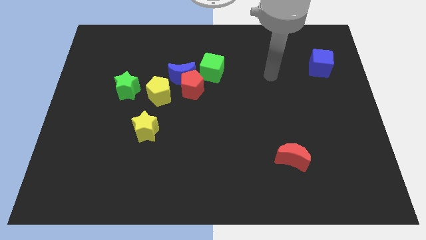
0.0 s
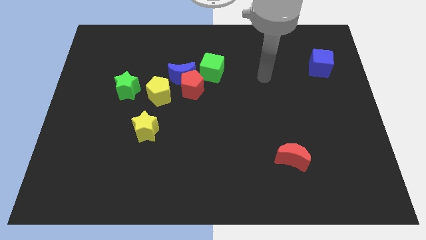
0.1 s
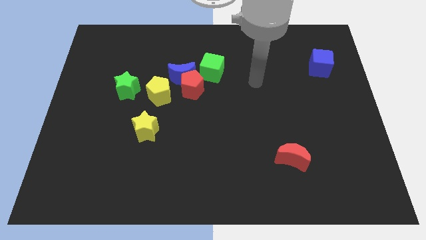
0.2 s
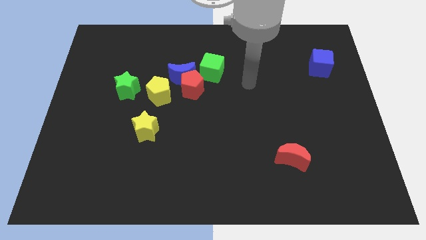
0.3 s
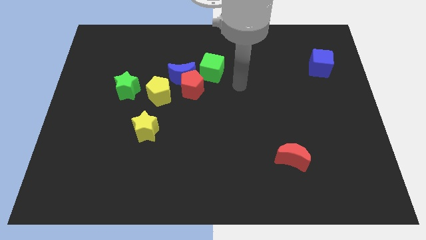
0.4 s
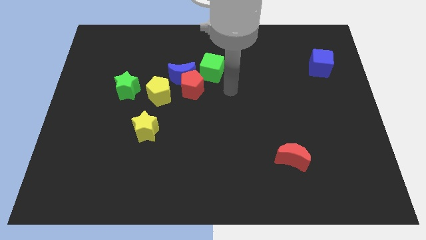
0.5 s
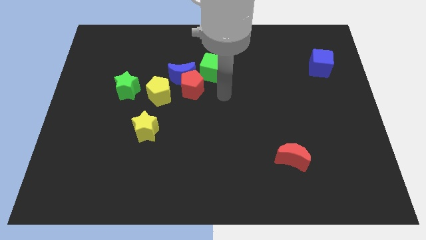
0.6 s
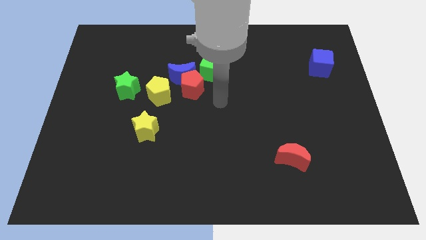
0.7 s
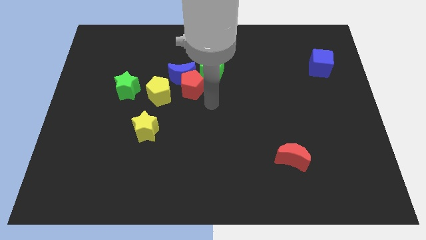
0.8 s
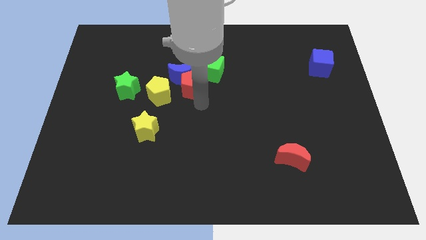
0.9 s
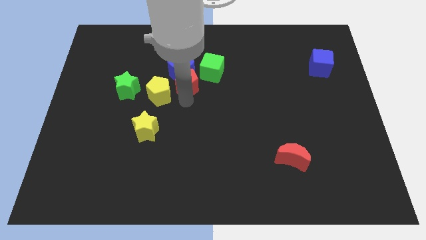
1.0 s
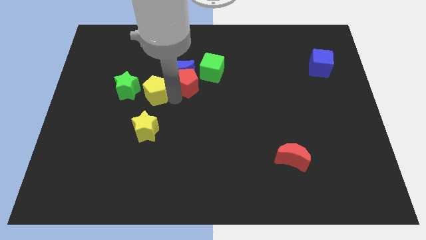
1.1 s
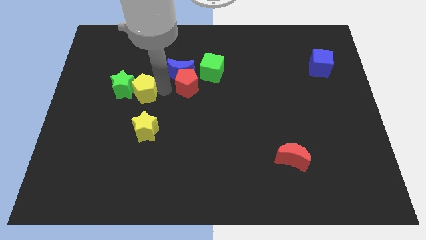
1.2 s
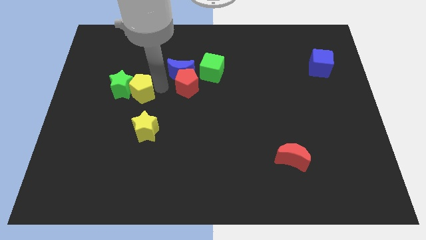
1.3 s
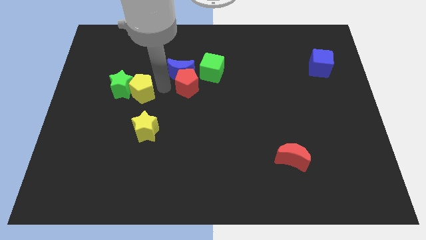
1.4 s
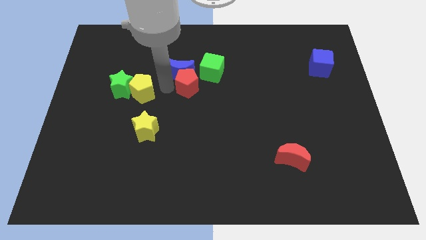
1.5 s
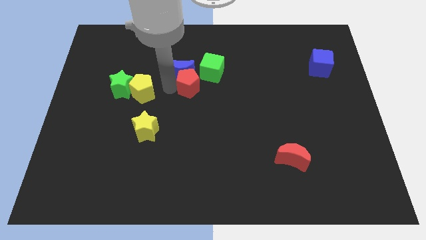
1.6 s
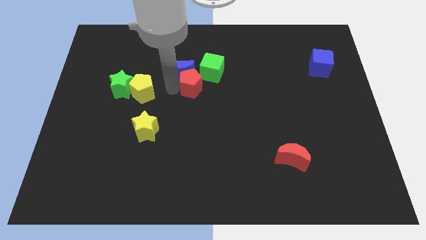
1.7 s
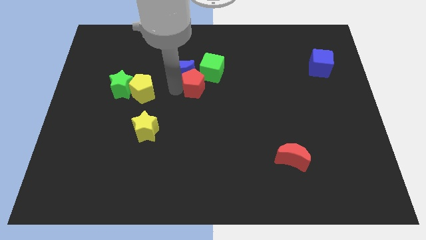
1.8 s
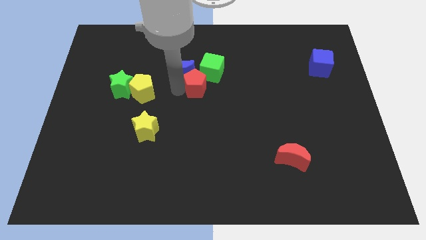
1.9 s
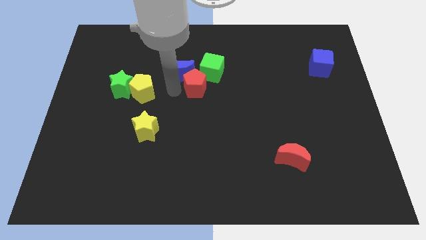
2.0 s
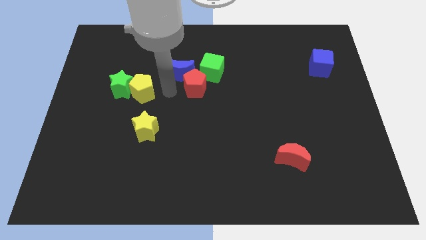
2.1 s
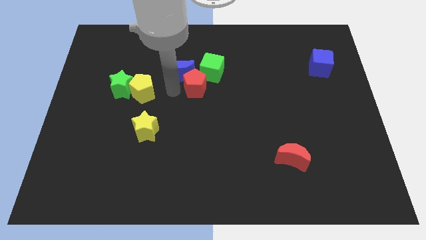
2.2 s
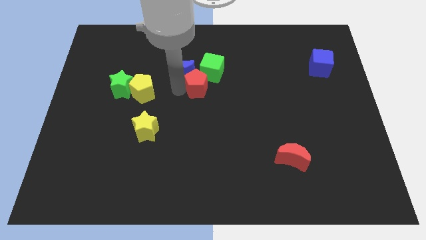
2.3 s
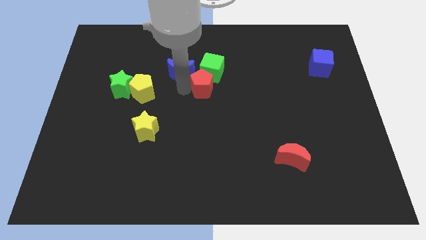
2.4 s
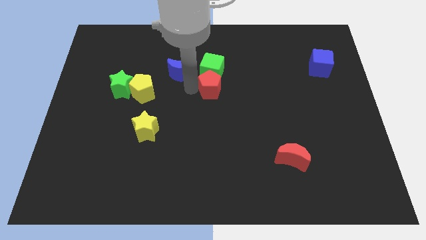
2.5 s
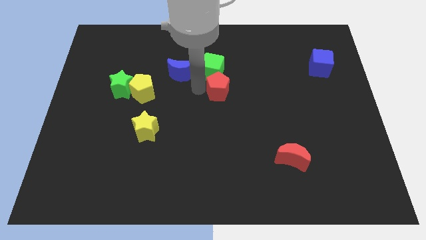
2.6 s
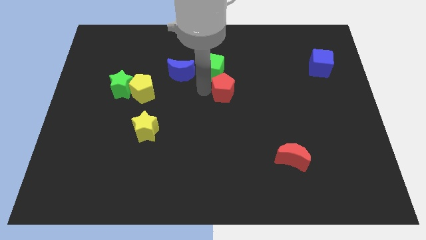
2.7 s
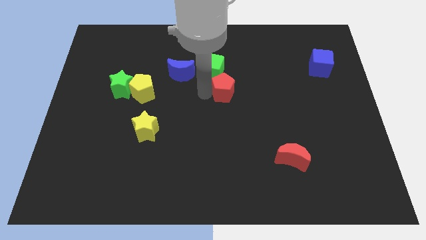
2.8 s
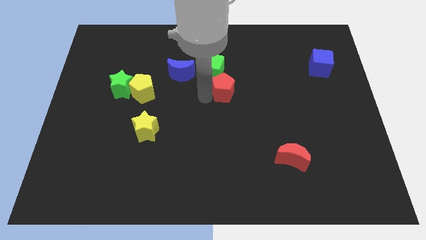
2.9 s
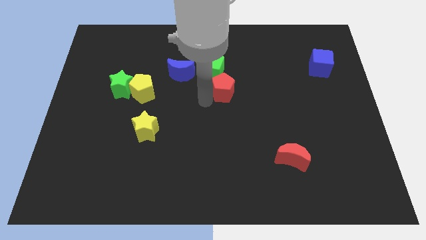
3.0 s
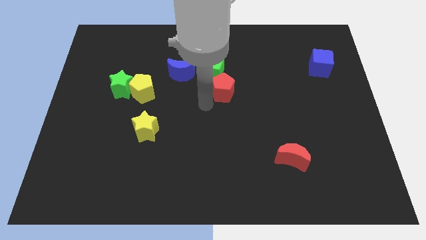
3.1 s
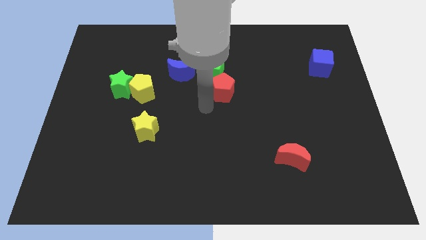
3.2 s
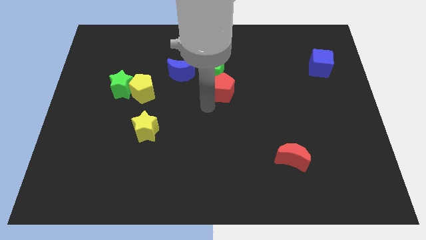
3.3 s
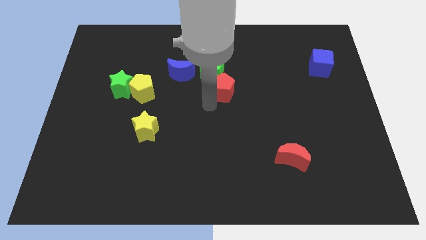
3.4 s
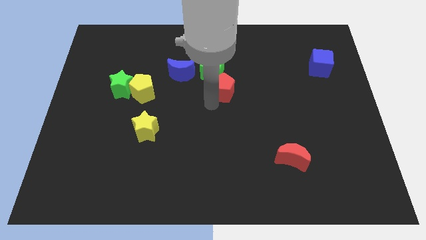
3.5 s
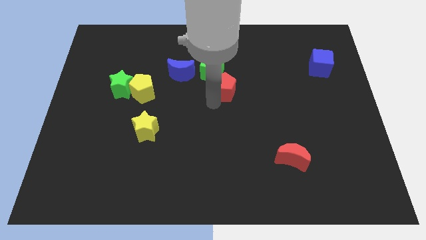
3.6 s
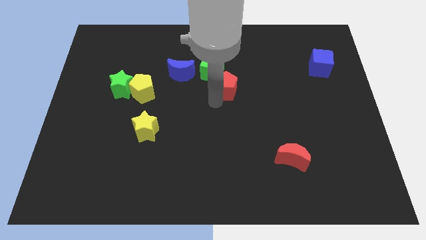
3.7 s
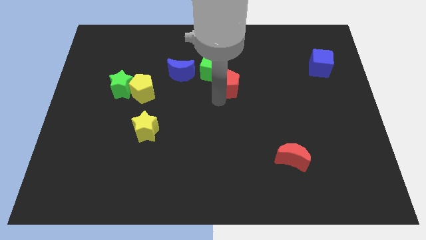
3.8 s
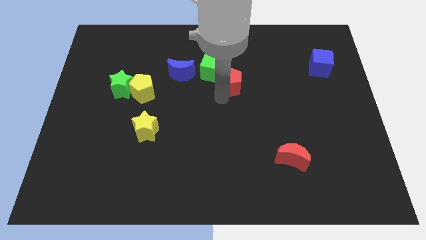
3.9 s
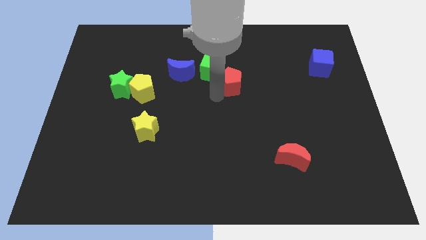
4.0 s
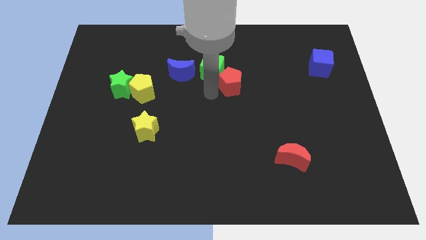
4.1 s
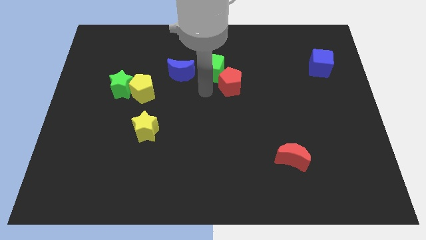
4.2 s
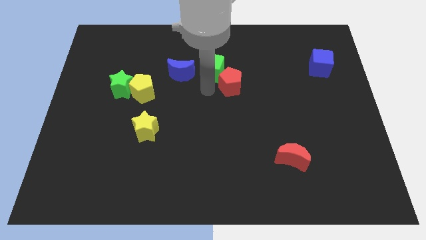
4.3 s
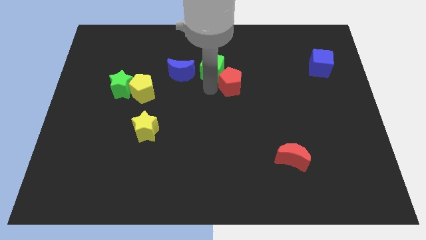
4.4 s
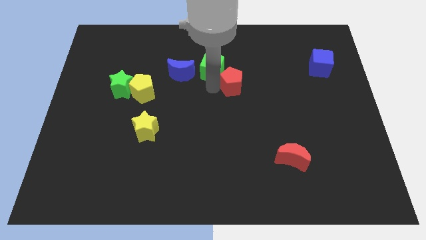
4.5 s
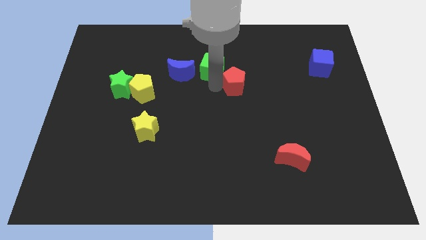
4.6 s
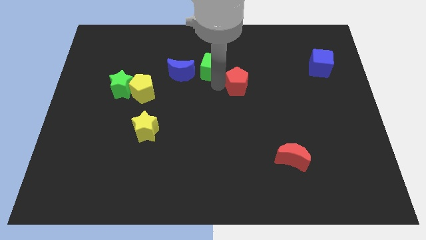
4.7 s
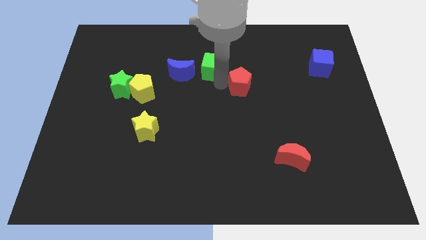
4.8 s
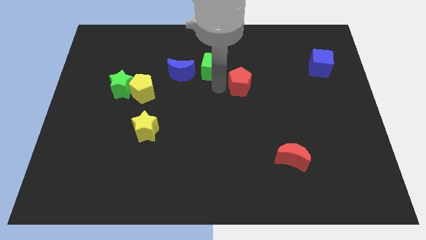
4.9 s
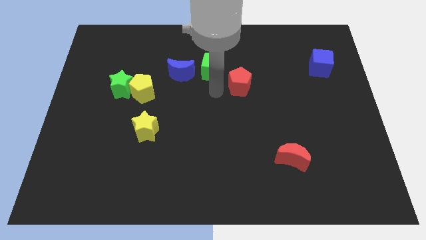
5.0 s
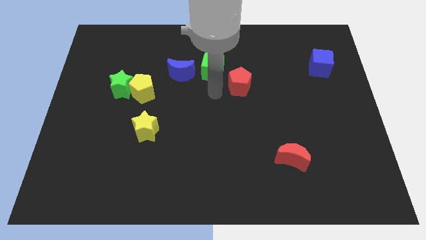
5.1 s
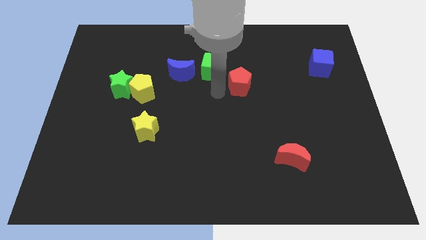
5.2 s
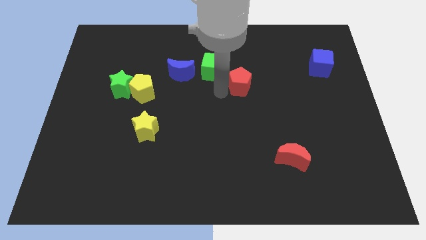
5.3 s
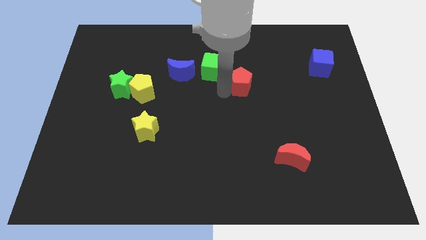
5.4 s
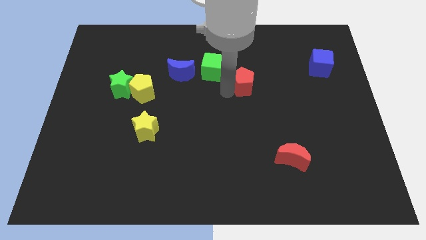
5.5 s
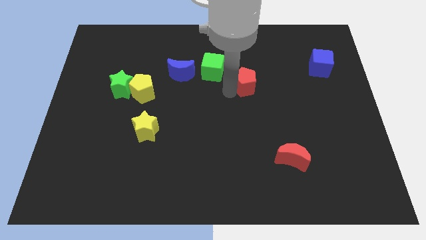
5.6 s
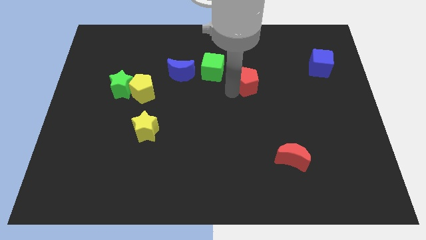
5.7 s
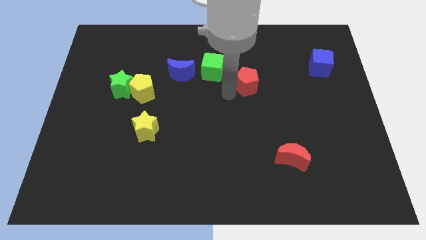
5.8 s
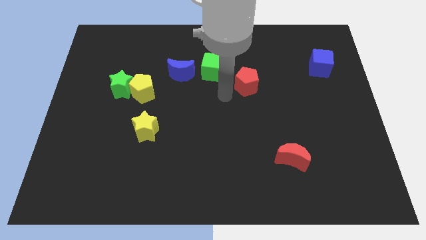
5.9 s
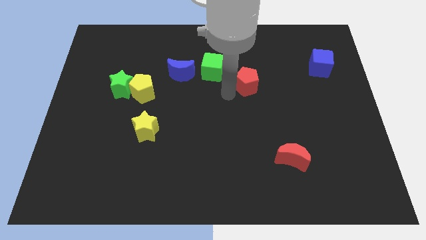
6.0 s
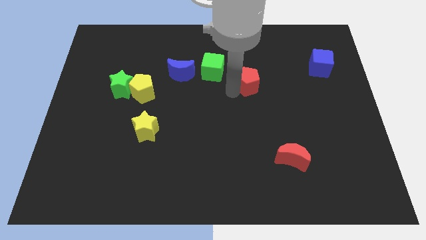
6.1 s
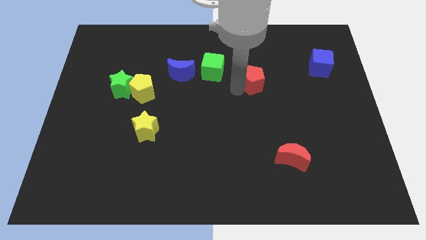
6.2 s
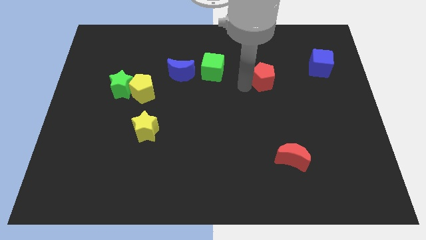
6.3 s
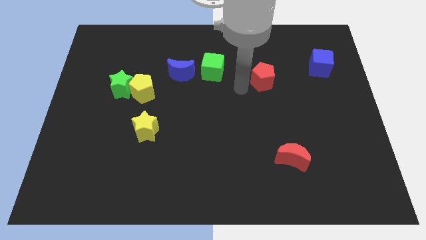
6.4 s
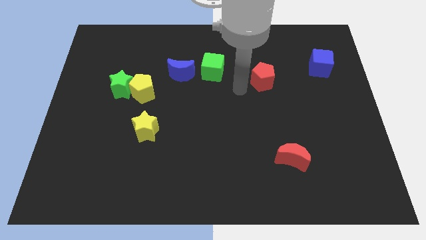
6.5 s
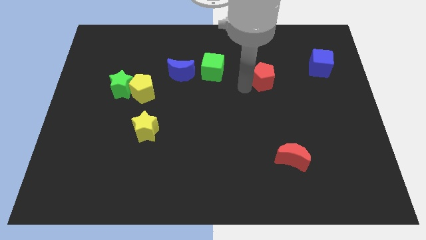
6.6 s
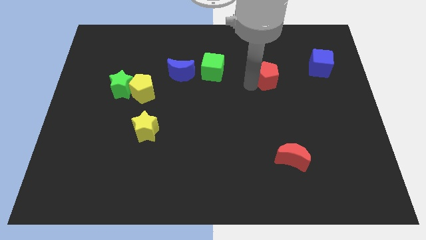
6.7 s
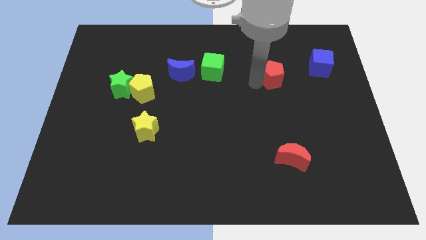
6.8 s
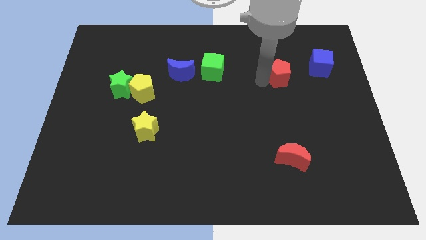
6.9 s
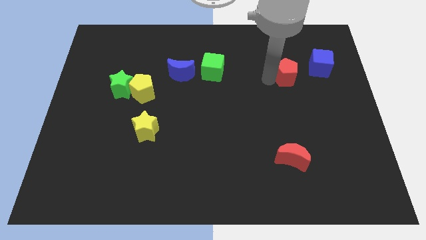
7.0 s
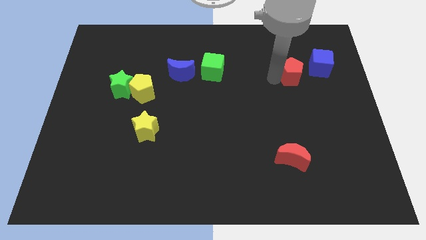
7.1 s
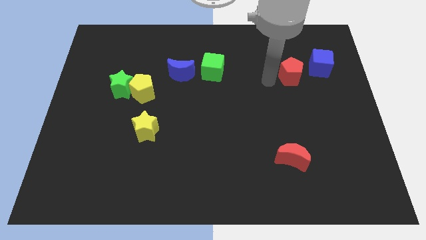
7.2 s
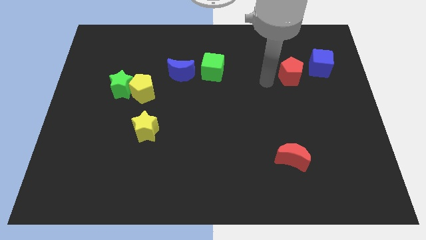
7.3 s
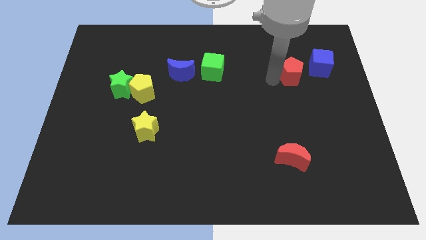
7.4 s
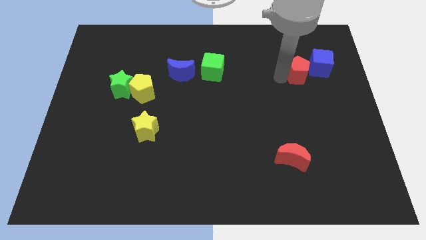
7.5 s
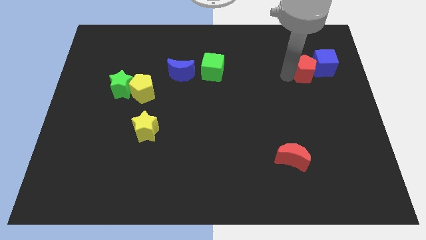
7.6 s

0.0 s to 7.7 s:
put the red pentagon close to the blue cube
